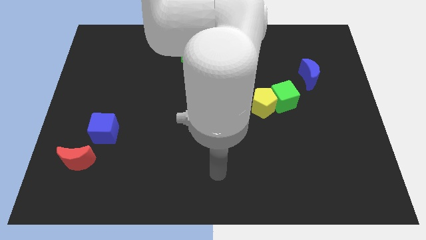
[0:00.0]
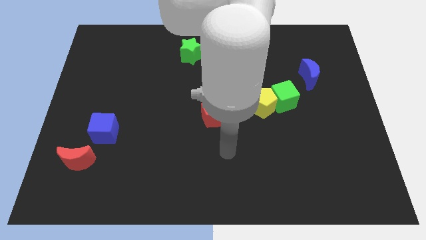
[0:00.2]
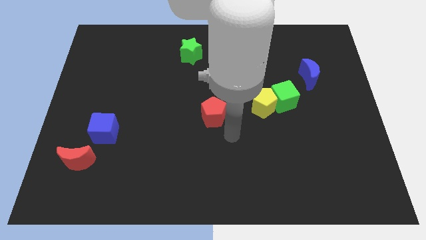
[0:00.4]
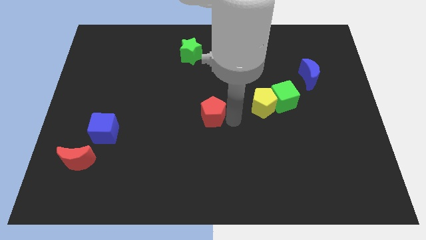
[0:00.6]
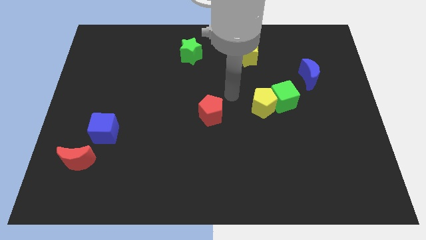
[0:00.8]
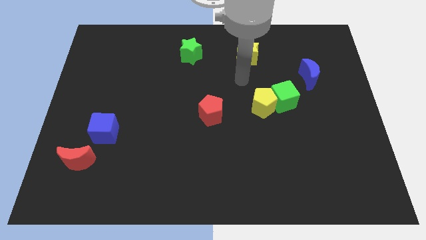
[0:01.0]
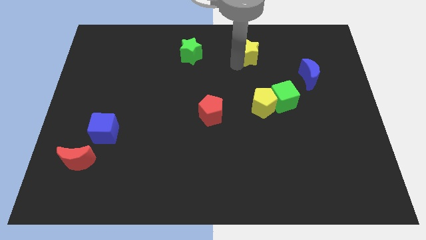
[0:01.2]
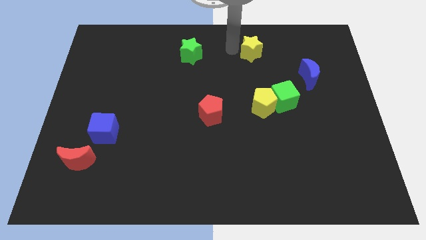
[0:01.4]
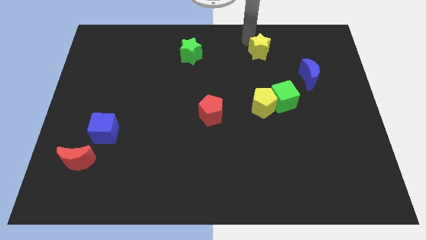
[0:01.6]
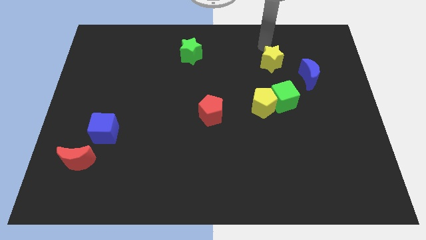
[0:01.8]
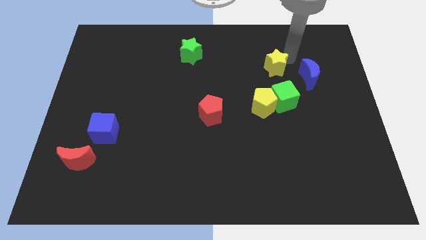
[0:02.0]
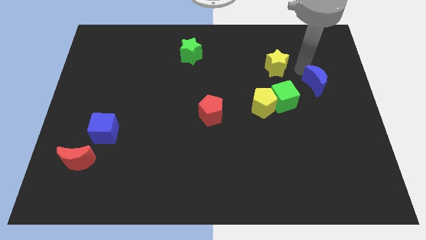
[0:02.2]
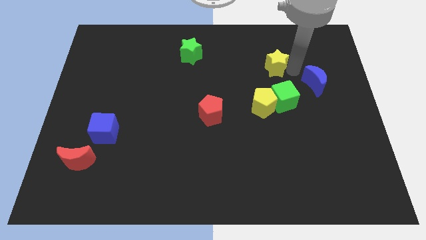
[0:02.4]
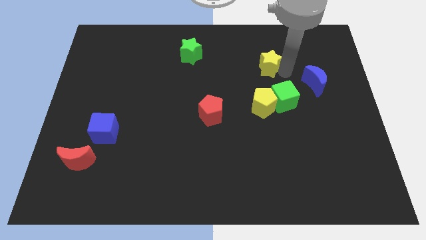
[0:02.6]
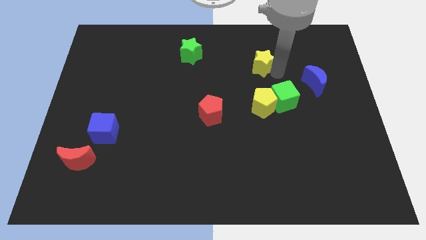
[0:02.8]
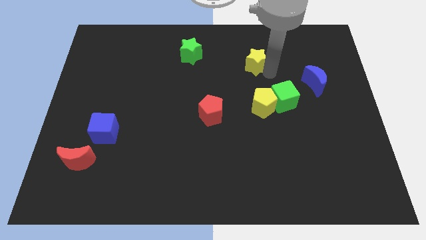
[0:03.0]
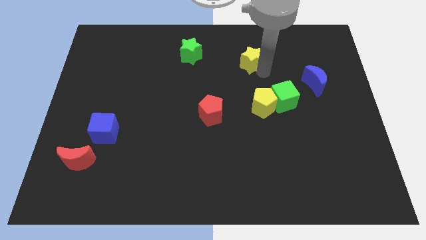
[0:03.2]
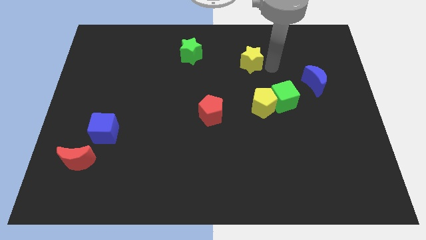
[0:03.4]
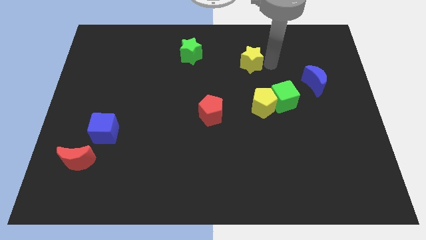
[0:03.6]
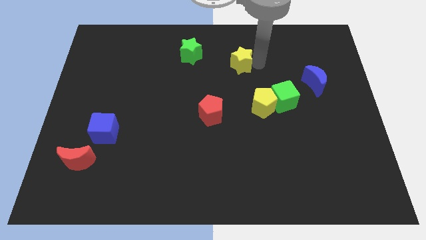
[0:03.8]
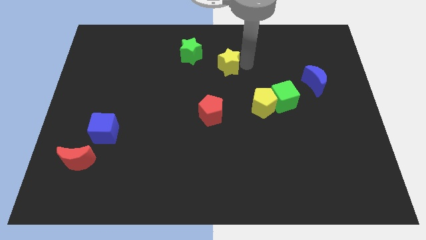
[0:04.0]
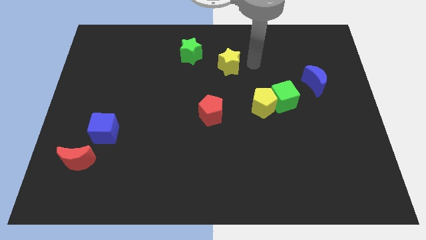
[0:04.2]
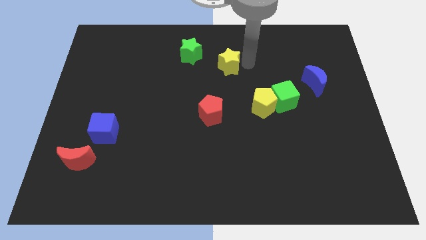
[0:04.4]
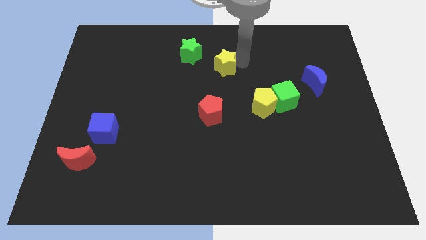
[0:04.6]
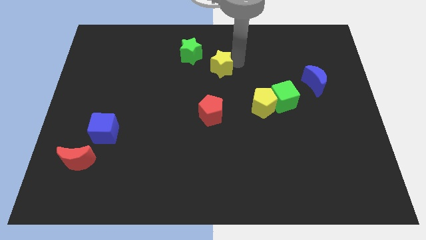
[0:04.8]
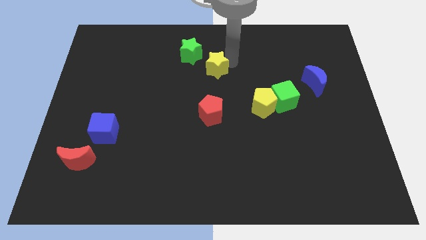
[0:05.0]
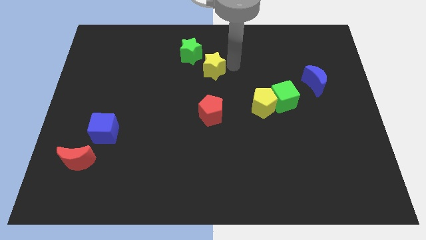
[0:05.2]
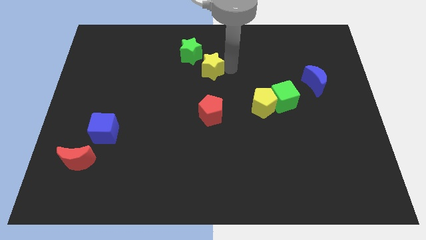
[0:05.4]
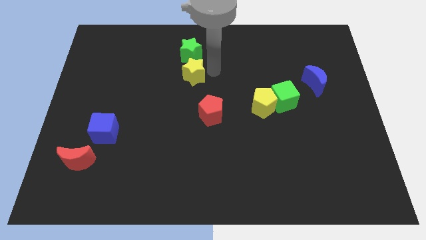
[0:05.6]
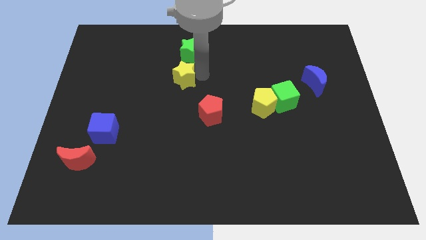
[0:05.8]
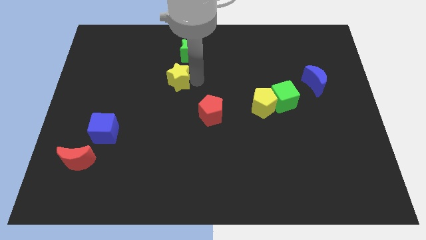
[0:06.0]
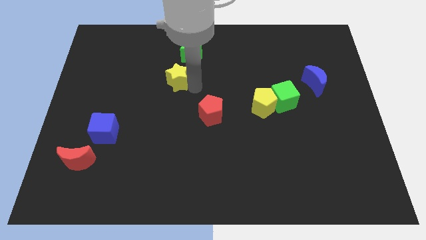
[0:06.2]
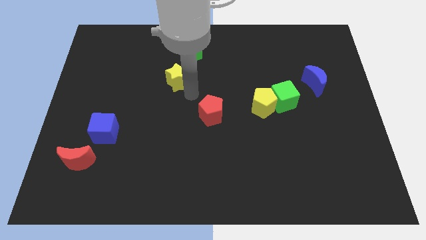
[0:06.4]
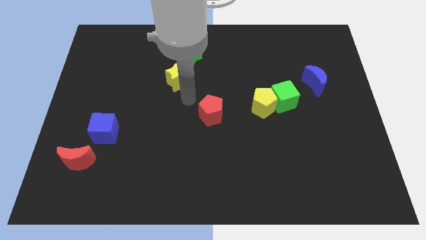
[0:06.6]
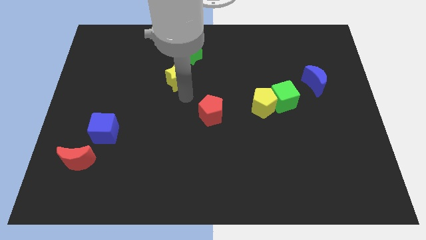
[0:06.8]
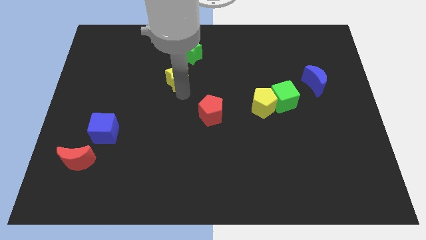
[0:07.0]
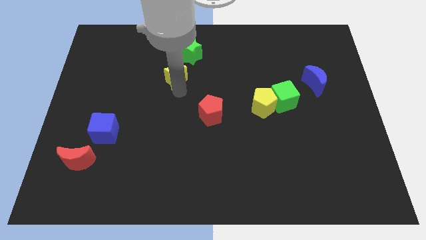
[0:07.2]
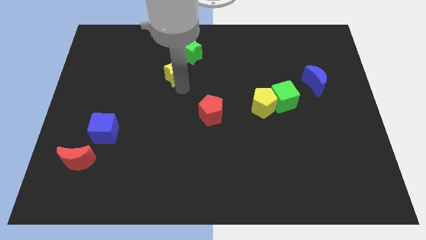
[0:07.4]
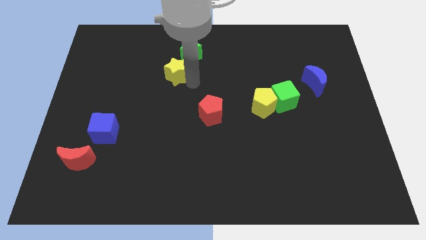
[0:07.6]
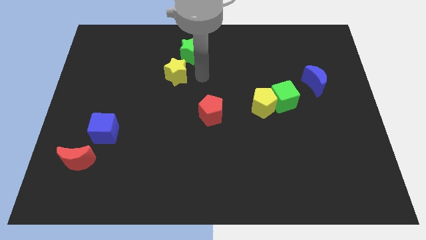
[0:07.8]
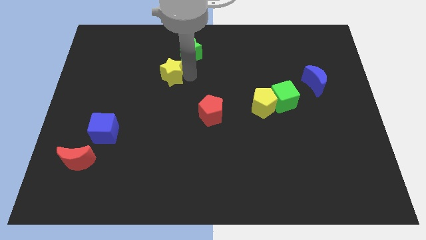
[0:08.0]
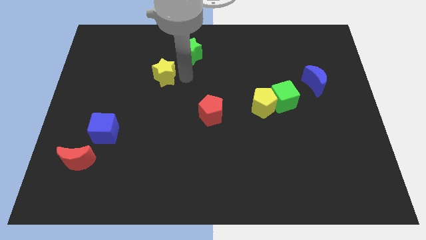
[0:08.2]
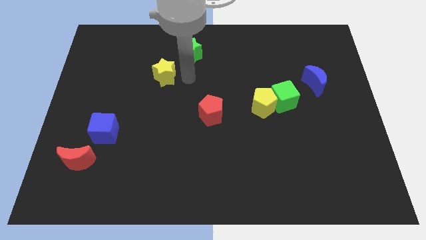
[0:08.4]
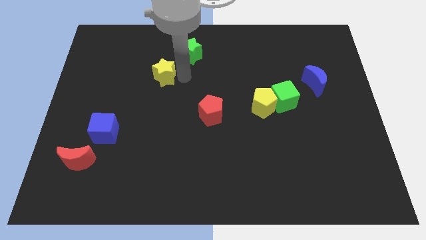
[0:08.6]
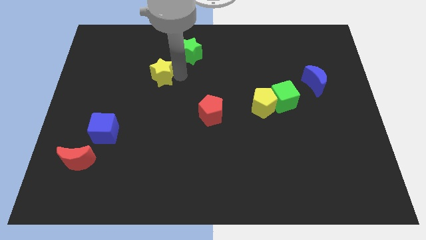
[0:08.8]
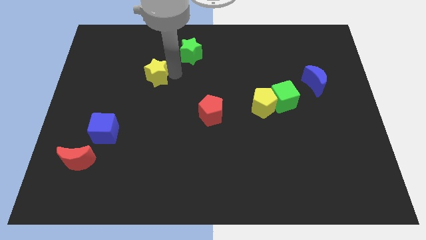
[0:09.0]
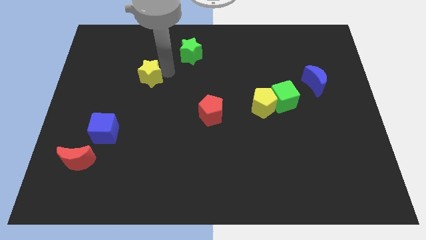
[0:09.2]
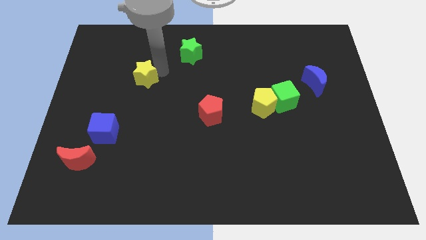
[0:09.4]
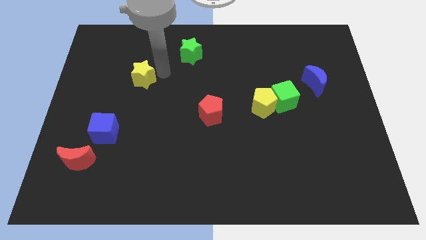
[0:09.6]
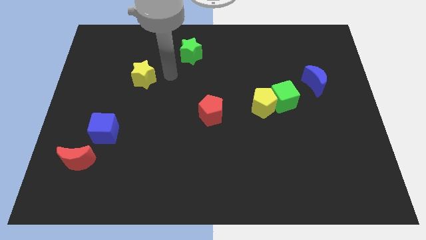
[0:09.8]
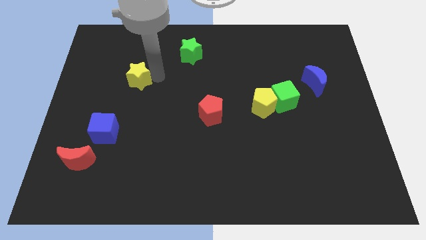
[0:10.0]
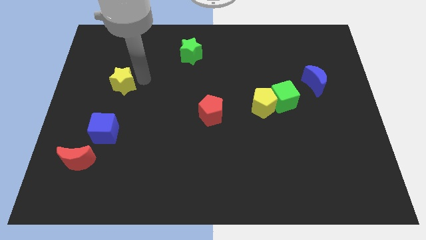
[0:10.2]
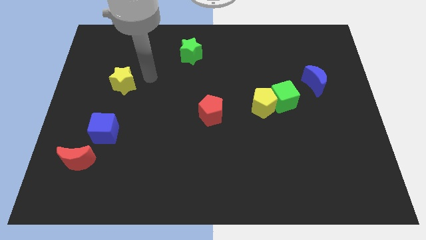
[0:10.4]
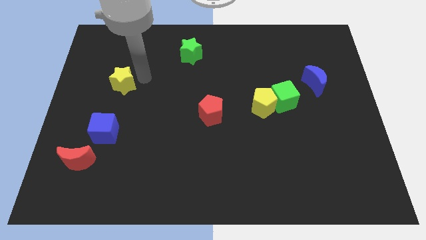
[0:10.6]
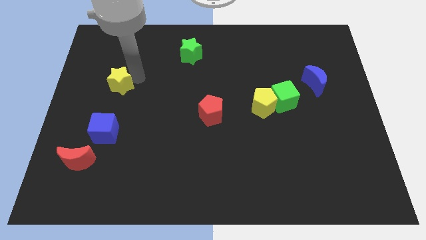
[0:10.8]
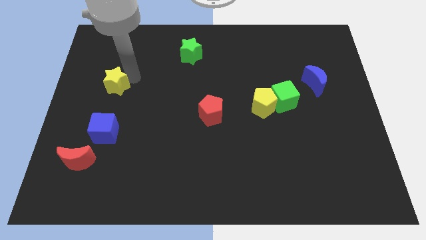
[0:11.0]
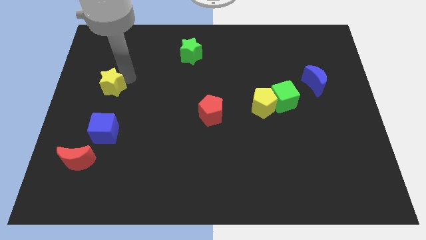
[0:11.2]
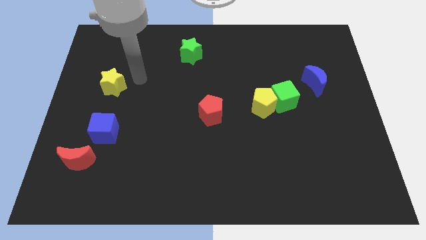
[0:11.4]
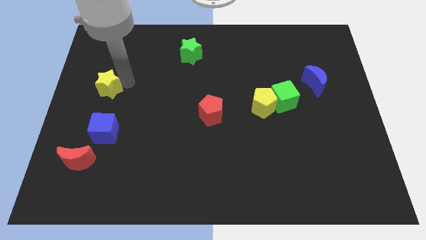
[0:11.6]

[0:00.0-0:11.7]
put the yellow star to the left side of the board
